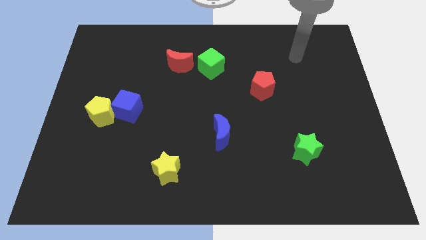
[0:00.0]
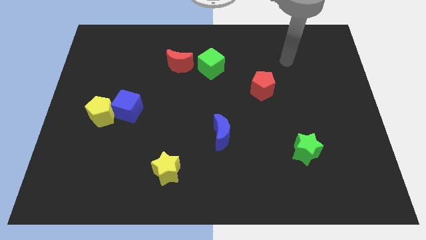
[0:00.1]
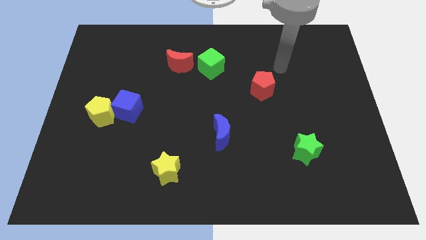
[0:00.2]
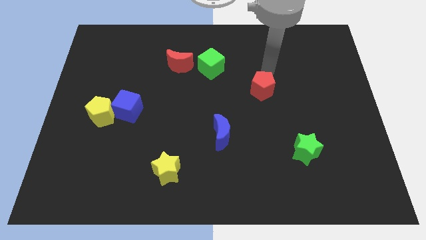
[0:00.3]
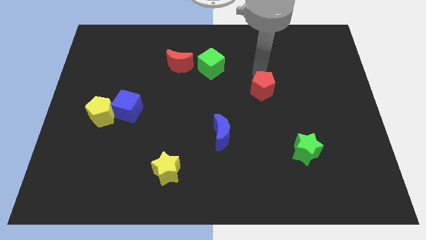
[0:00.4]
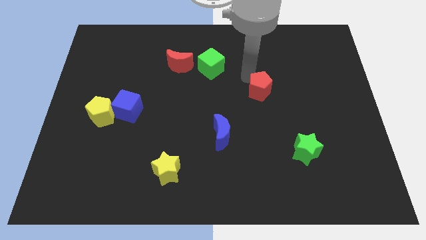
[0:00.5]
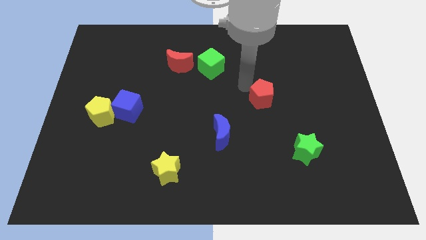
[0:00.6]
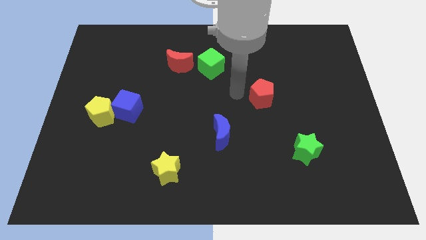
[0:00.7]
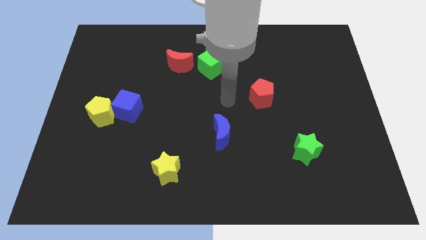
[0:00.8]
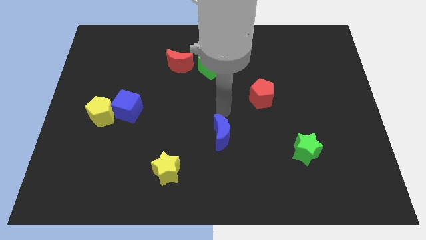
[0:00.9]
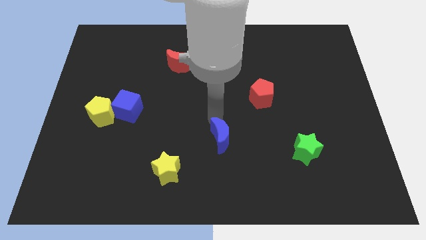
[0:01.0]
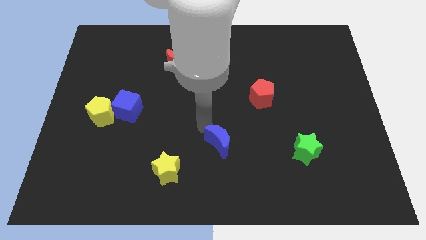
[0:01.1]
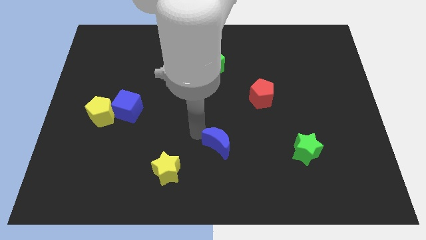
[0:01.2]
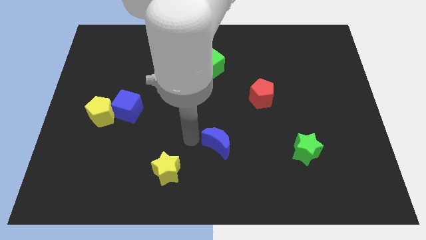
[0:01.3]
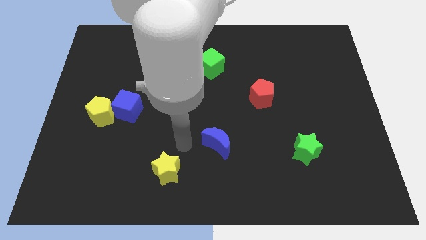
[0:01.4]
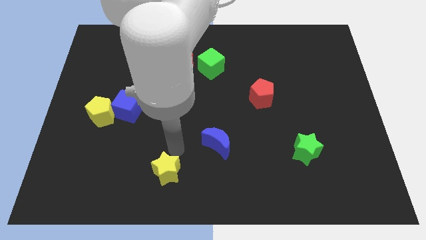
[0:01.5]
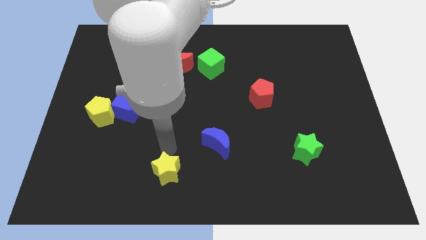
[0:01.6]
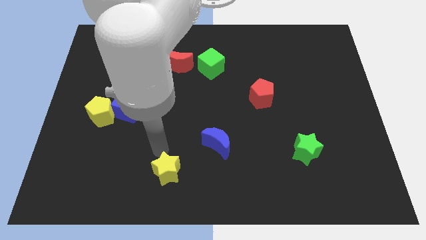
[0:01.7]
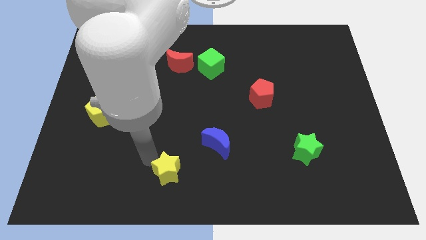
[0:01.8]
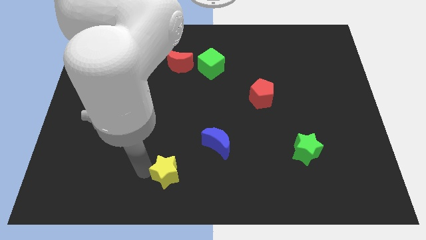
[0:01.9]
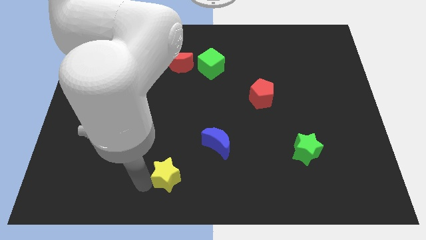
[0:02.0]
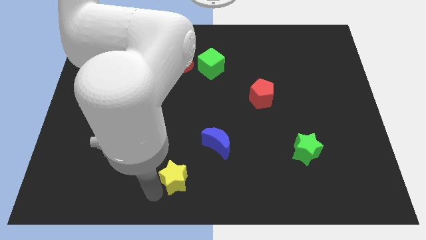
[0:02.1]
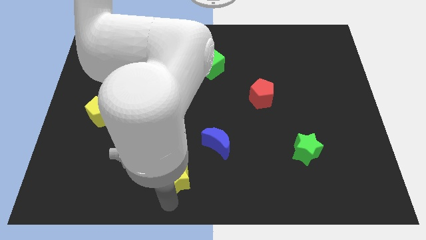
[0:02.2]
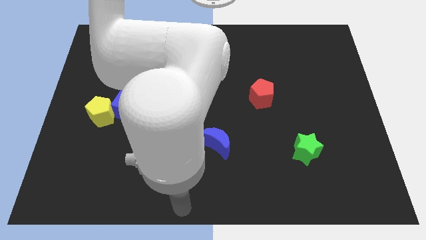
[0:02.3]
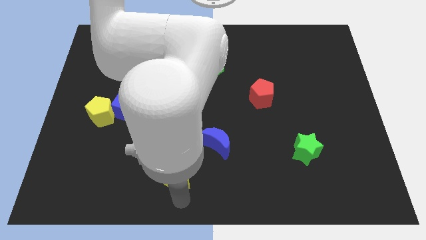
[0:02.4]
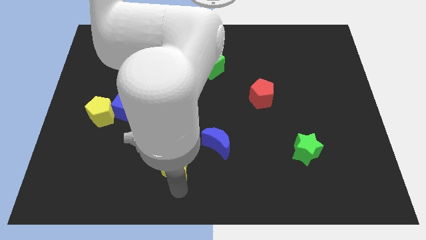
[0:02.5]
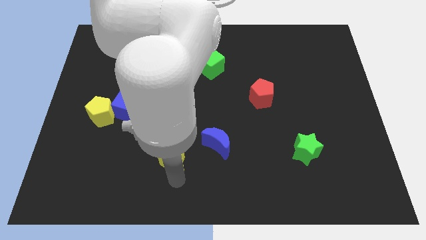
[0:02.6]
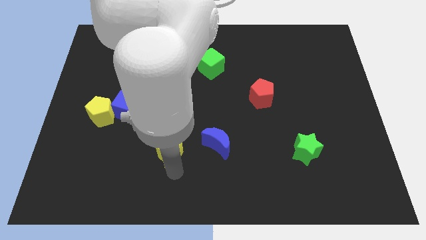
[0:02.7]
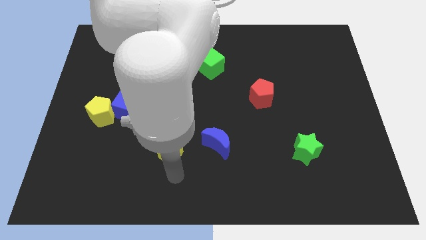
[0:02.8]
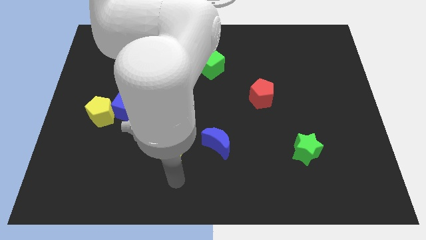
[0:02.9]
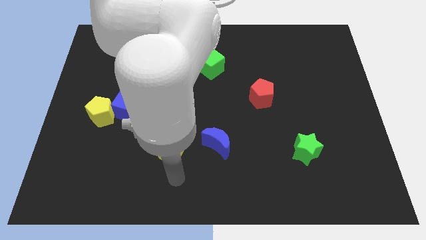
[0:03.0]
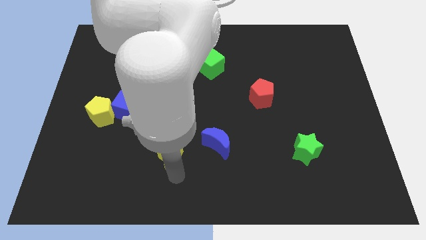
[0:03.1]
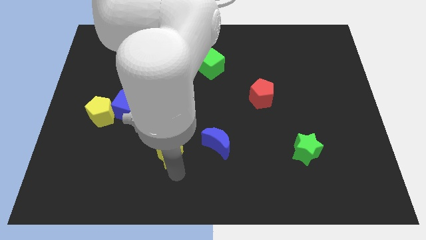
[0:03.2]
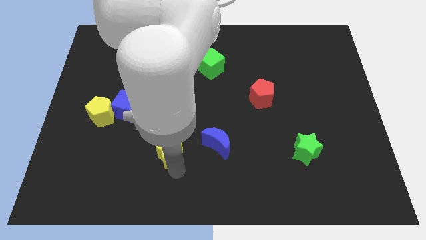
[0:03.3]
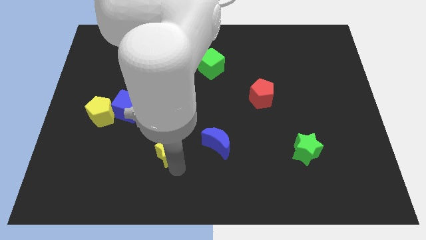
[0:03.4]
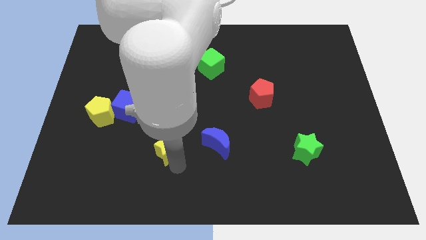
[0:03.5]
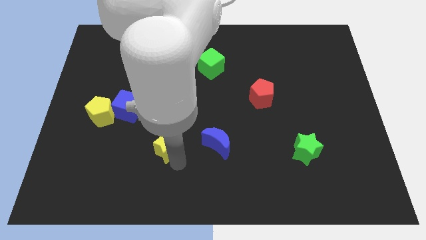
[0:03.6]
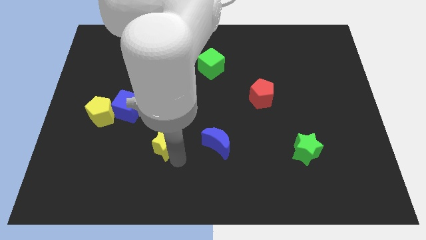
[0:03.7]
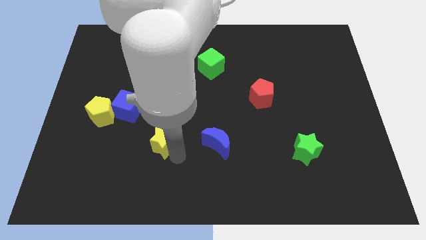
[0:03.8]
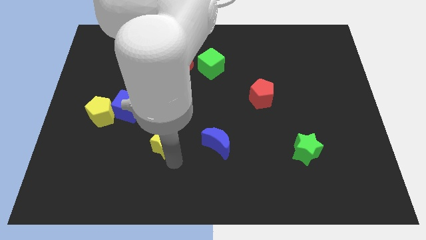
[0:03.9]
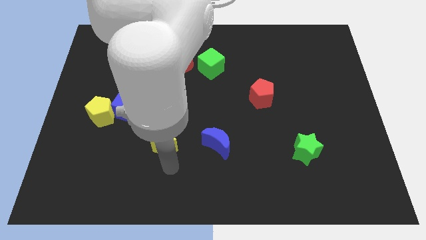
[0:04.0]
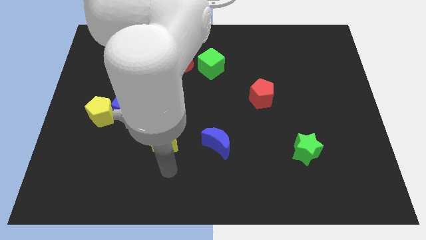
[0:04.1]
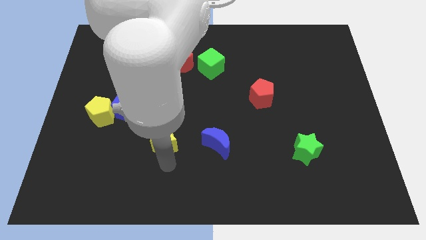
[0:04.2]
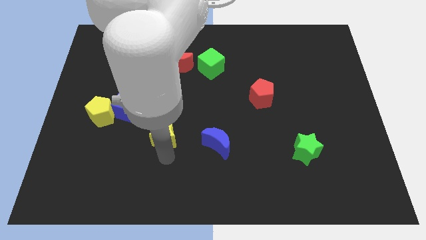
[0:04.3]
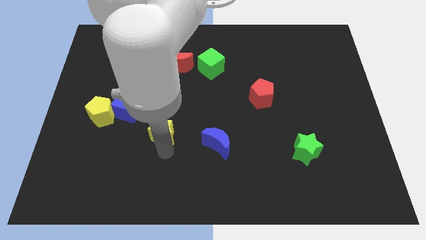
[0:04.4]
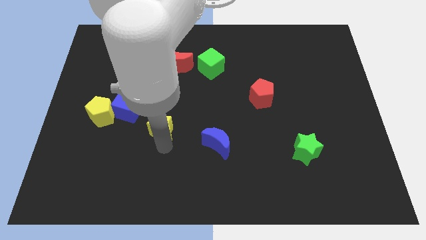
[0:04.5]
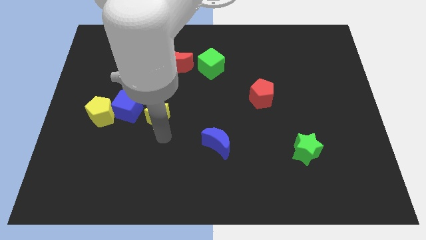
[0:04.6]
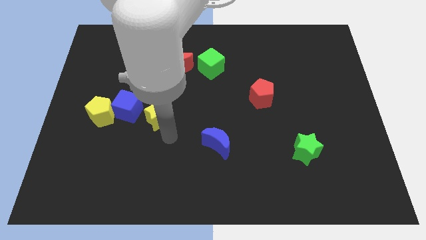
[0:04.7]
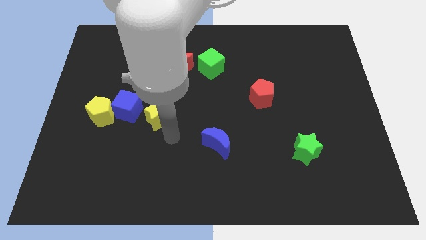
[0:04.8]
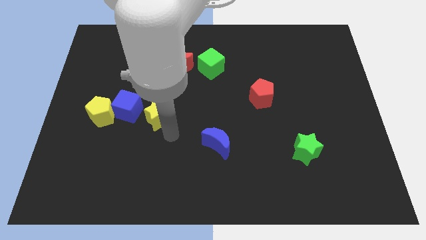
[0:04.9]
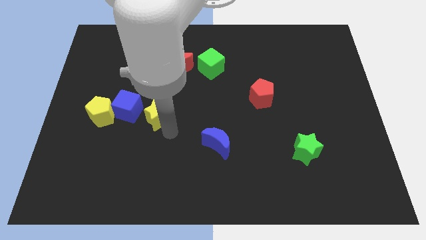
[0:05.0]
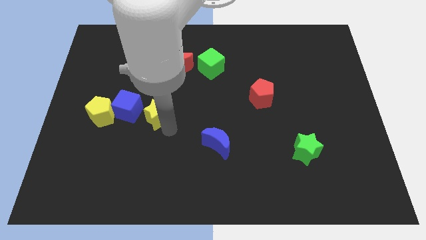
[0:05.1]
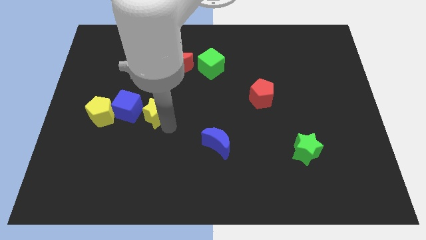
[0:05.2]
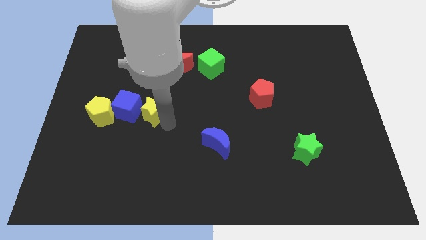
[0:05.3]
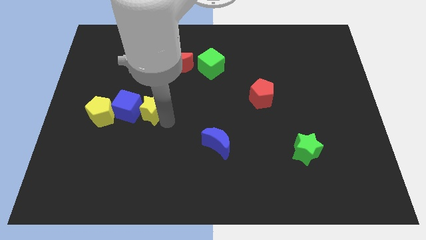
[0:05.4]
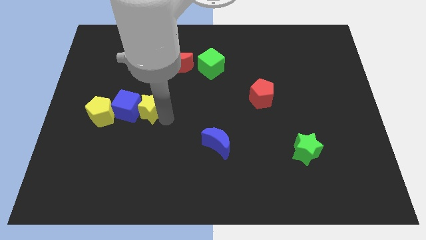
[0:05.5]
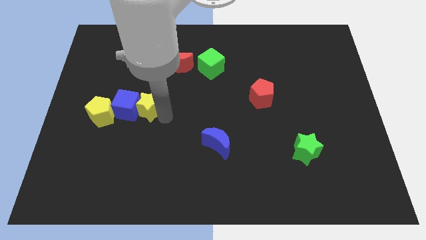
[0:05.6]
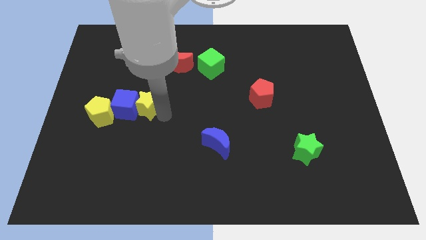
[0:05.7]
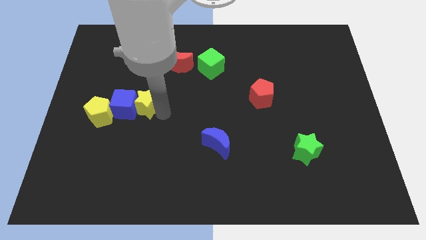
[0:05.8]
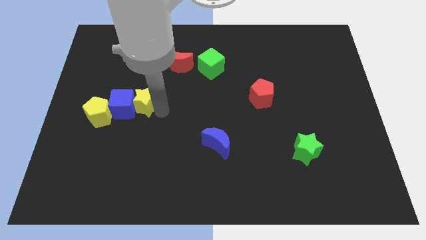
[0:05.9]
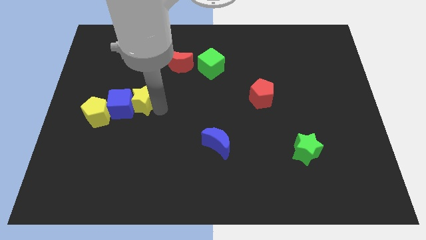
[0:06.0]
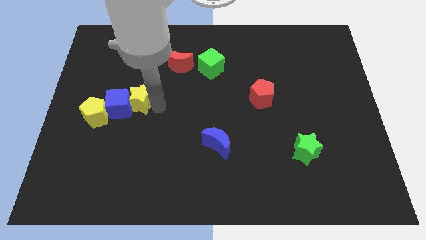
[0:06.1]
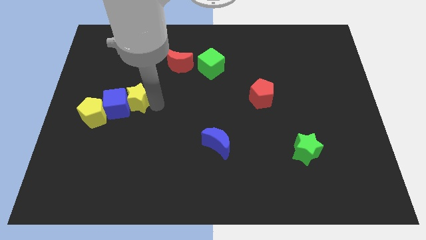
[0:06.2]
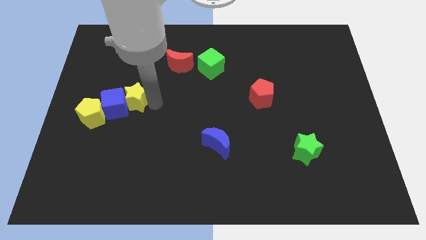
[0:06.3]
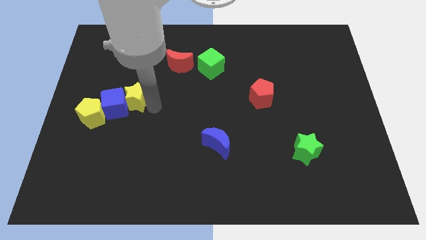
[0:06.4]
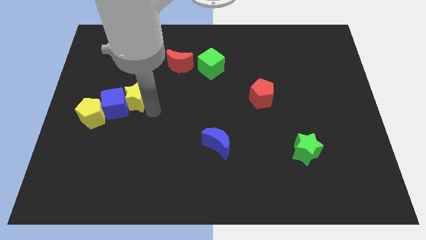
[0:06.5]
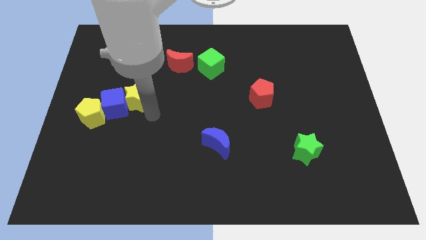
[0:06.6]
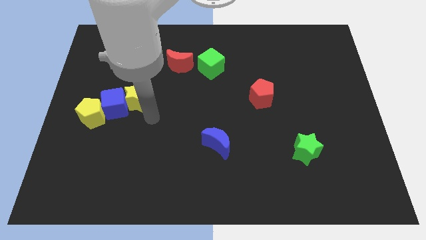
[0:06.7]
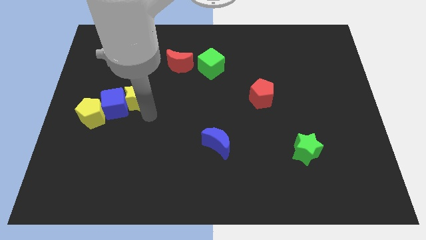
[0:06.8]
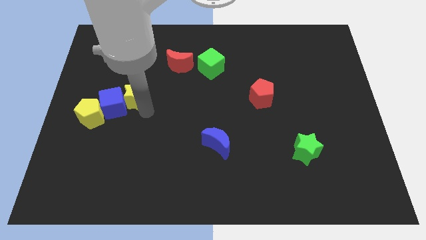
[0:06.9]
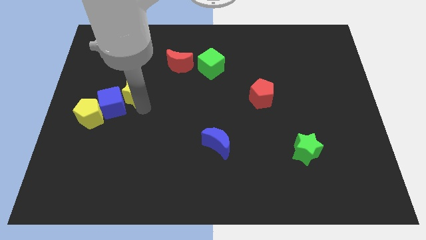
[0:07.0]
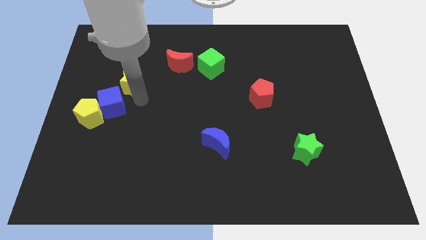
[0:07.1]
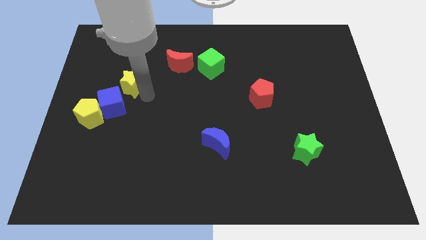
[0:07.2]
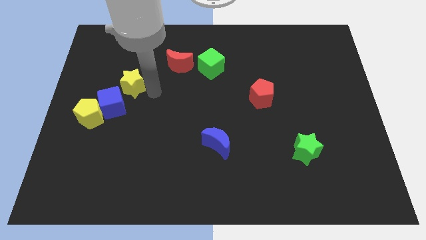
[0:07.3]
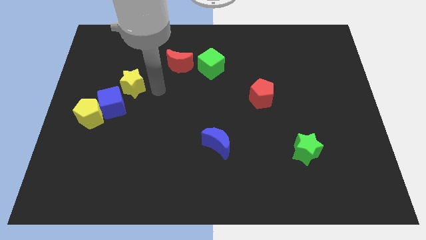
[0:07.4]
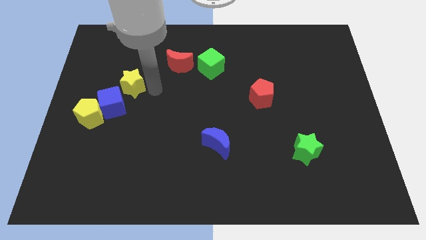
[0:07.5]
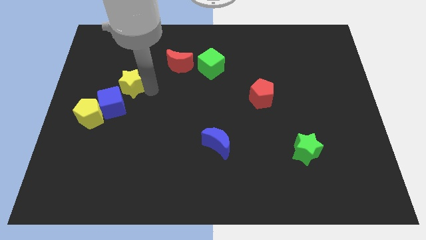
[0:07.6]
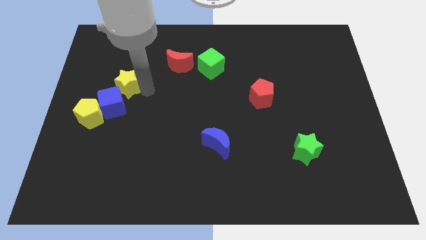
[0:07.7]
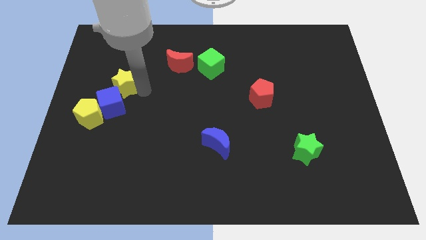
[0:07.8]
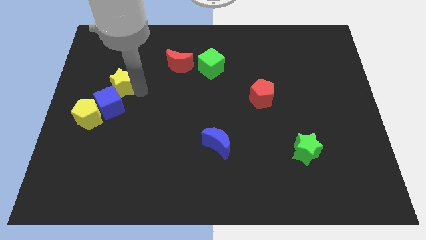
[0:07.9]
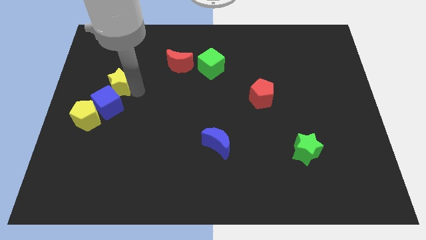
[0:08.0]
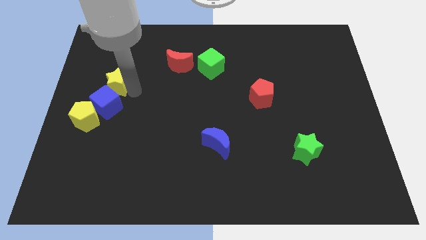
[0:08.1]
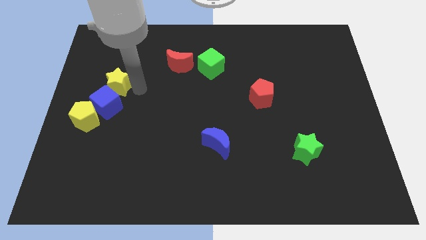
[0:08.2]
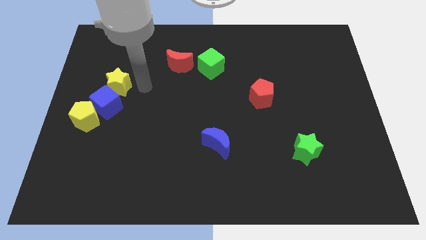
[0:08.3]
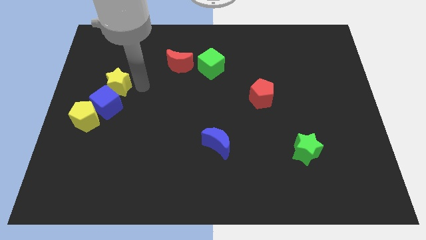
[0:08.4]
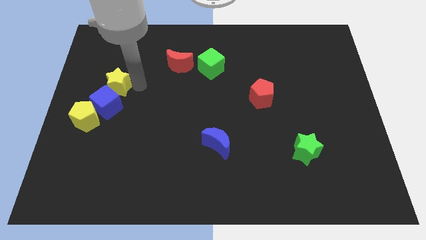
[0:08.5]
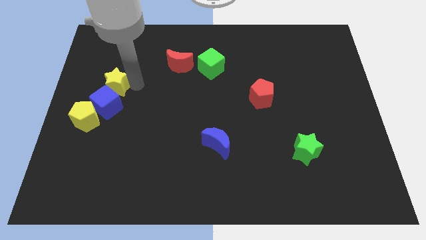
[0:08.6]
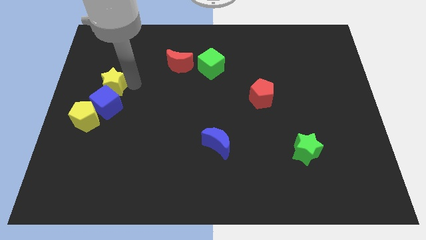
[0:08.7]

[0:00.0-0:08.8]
slide the yellow star to the top of the yellow pentagon
